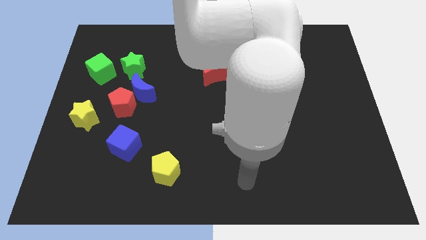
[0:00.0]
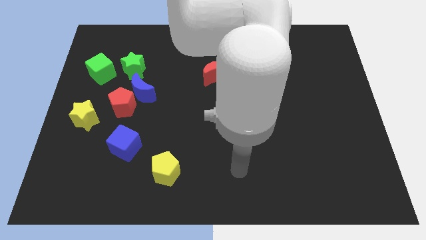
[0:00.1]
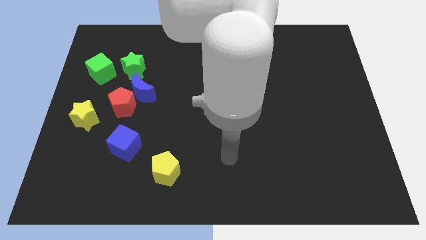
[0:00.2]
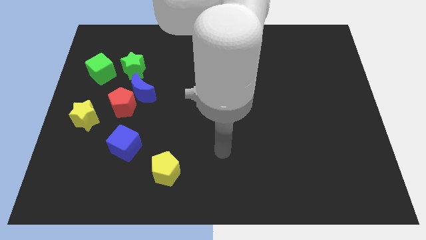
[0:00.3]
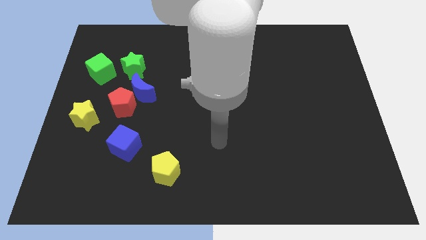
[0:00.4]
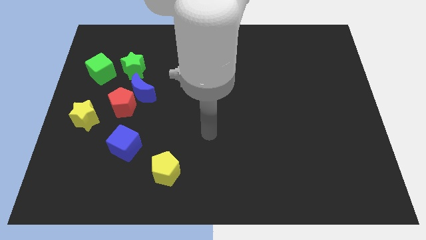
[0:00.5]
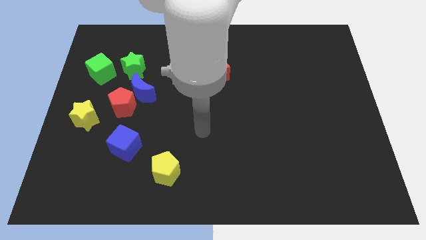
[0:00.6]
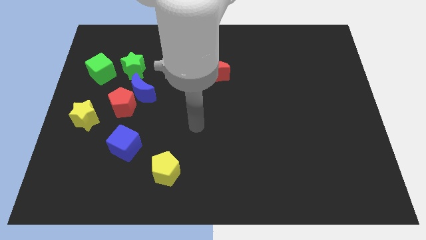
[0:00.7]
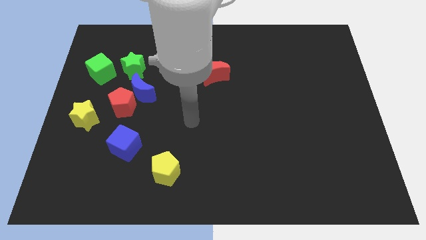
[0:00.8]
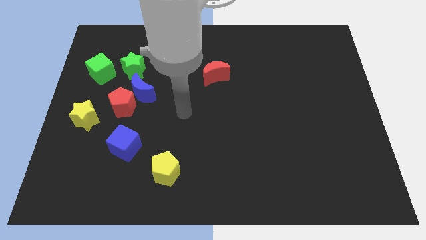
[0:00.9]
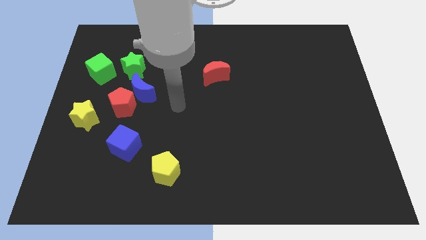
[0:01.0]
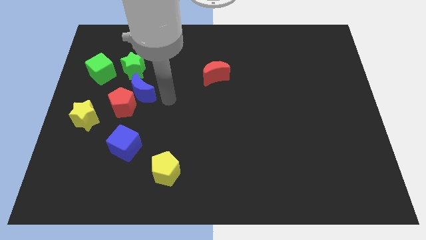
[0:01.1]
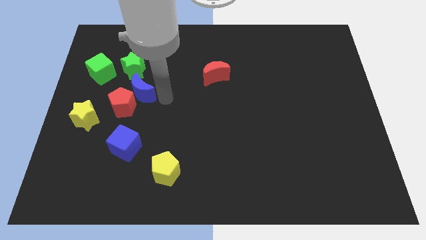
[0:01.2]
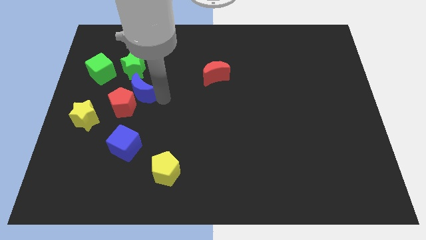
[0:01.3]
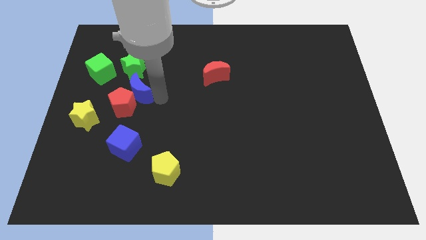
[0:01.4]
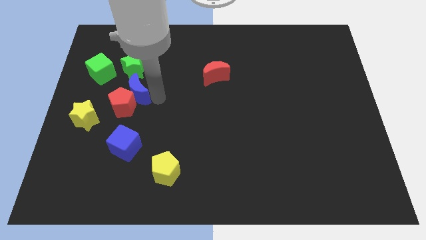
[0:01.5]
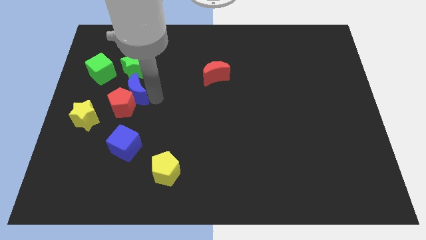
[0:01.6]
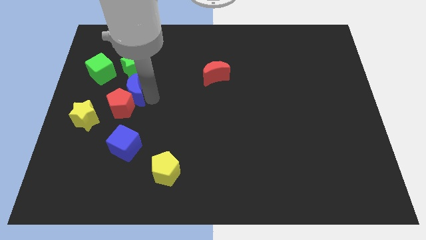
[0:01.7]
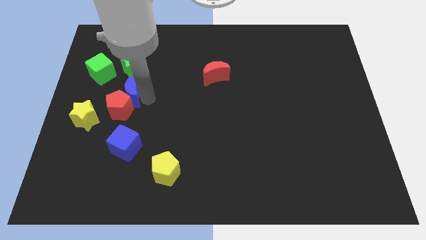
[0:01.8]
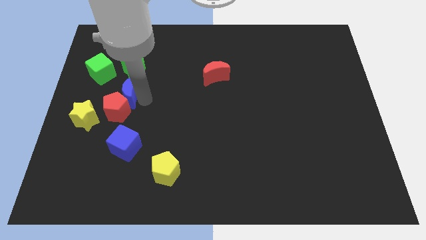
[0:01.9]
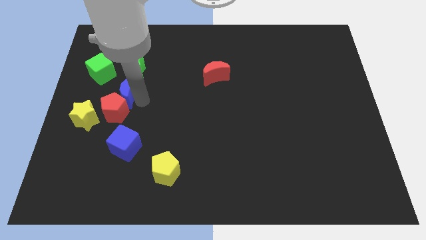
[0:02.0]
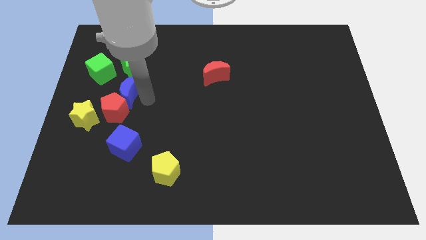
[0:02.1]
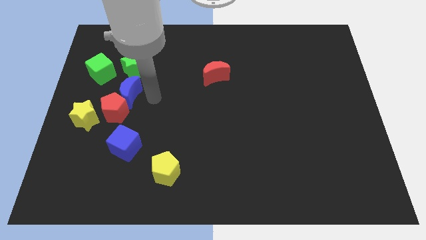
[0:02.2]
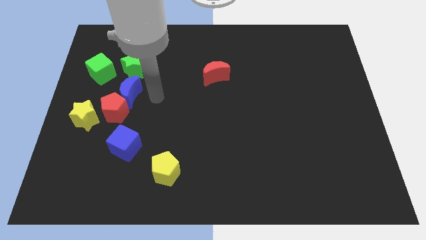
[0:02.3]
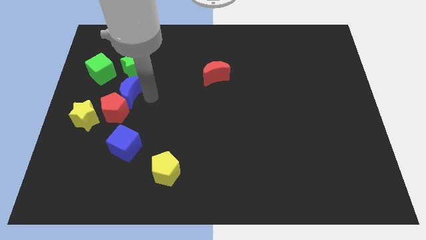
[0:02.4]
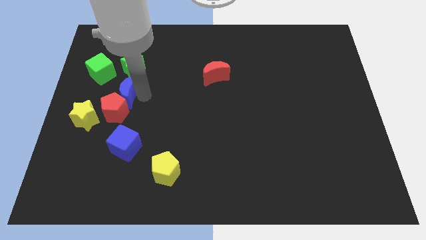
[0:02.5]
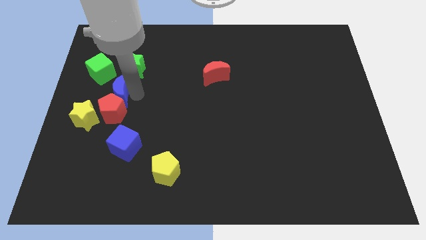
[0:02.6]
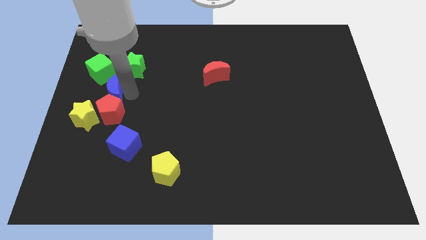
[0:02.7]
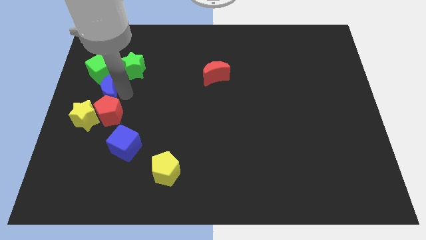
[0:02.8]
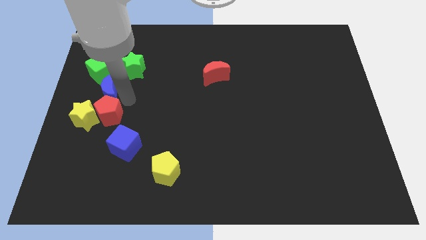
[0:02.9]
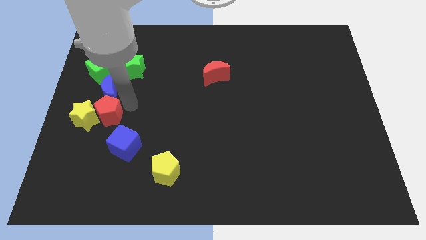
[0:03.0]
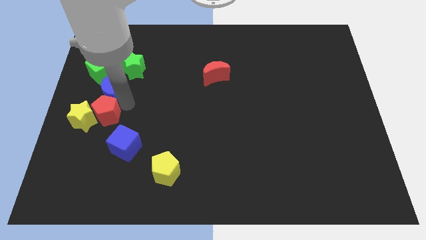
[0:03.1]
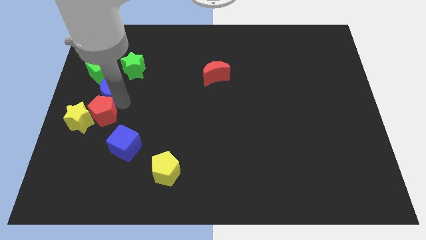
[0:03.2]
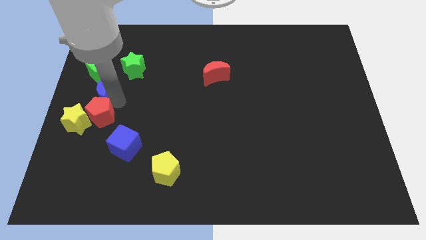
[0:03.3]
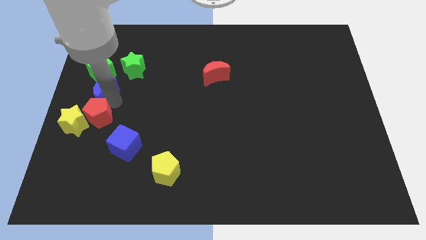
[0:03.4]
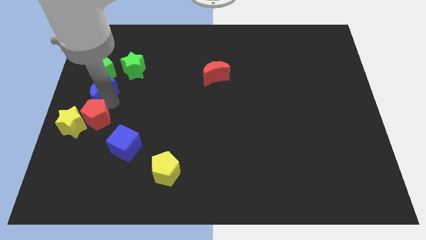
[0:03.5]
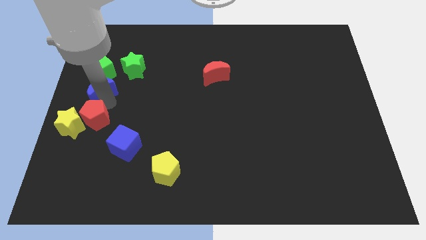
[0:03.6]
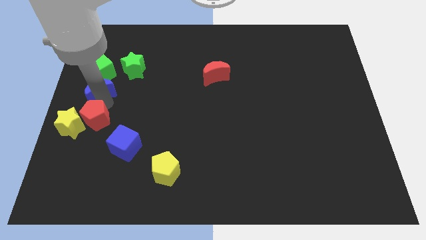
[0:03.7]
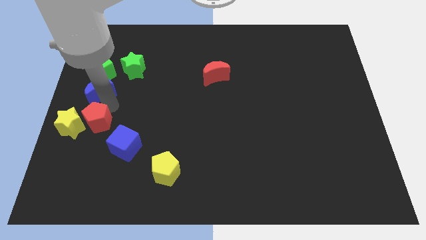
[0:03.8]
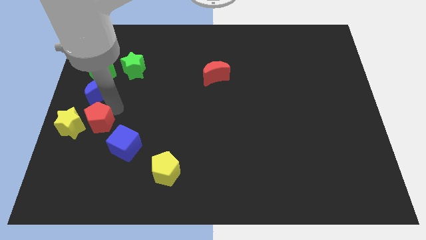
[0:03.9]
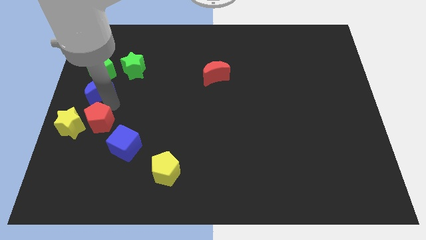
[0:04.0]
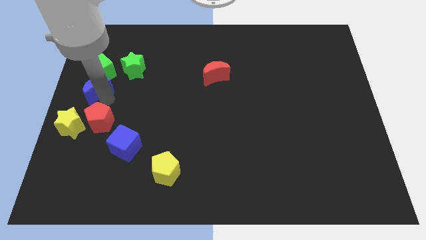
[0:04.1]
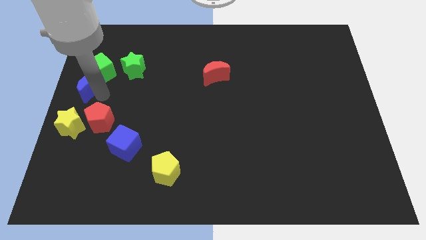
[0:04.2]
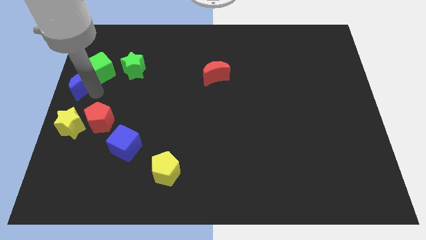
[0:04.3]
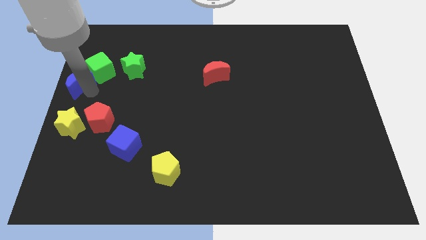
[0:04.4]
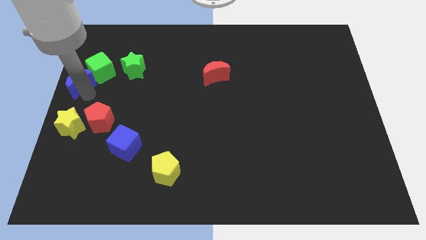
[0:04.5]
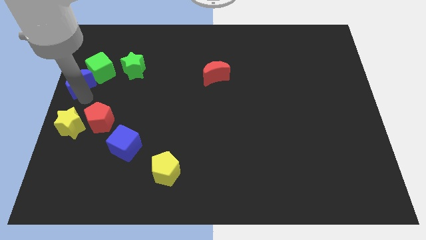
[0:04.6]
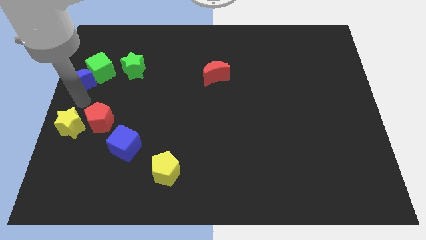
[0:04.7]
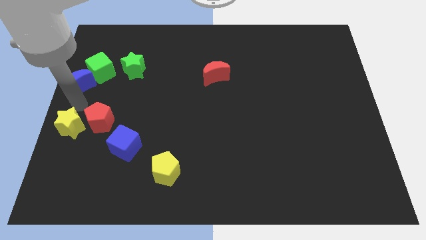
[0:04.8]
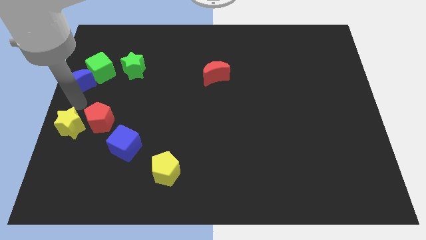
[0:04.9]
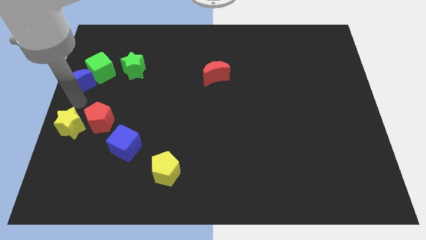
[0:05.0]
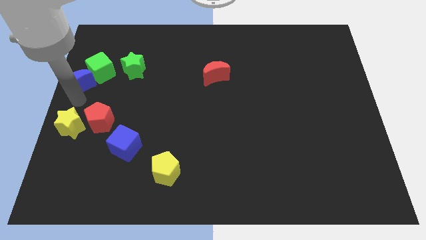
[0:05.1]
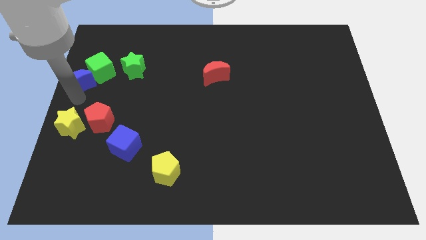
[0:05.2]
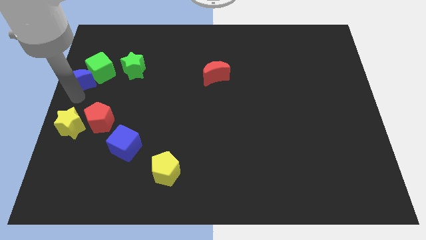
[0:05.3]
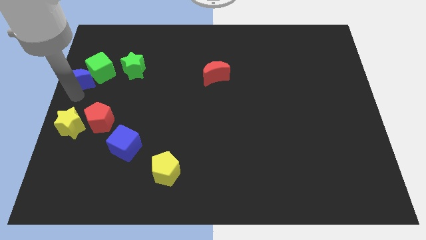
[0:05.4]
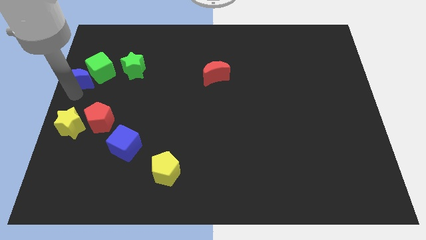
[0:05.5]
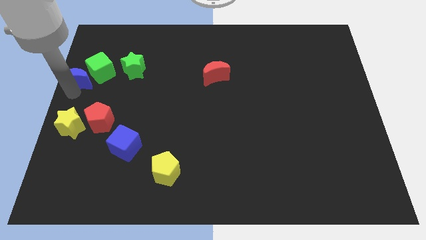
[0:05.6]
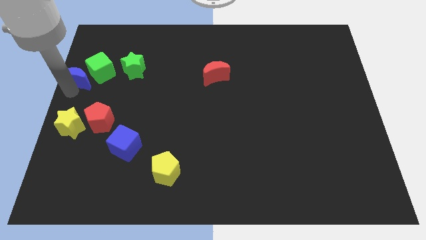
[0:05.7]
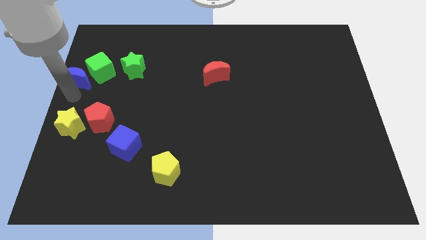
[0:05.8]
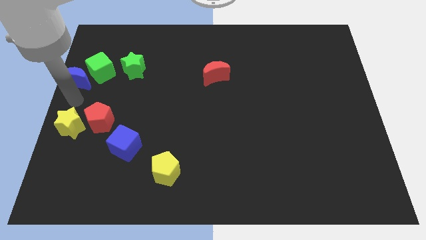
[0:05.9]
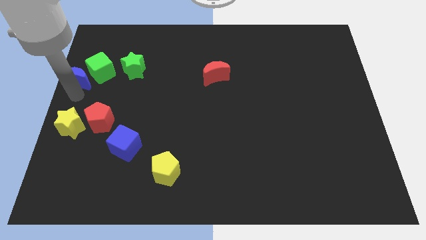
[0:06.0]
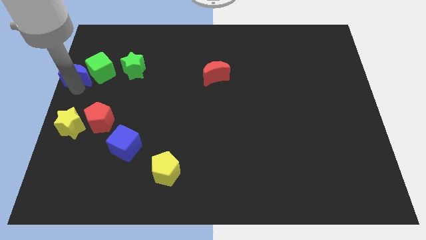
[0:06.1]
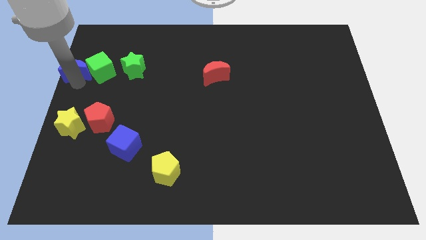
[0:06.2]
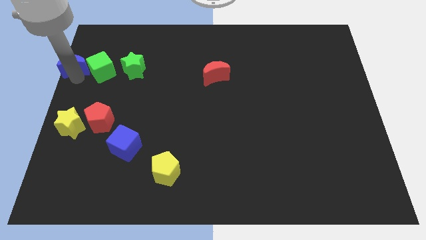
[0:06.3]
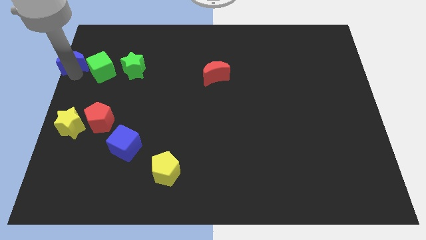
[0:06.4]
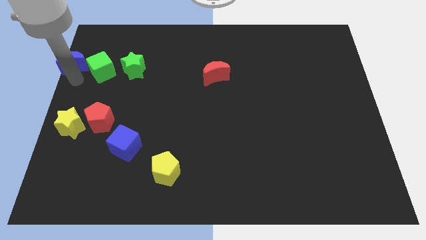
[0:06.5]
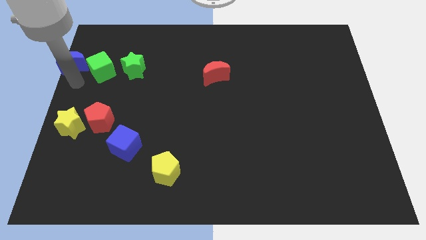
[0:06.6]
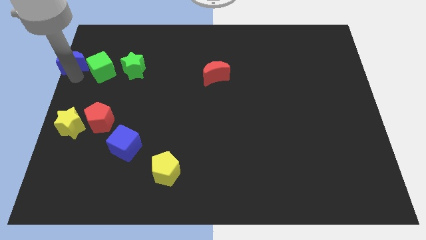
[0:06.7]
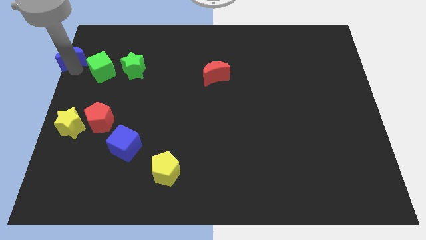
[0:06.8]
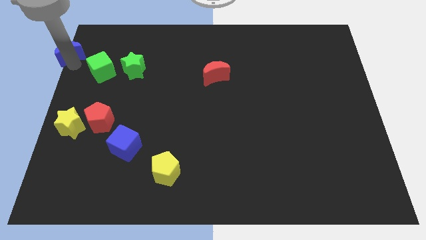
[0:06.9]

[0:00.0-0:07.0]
move the blue moon to the top left corner
